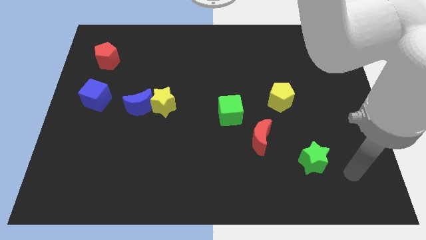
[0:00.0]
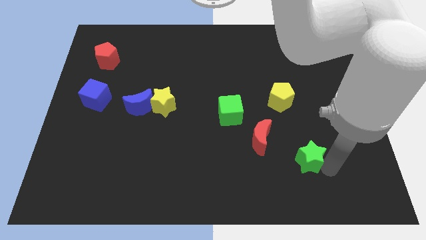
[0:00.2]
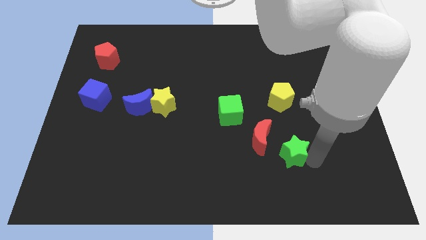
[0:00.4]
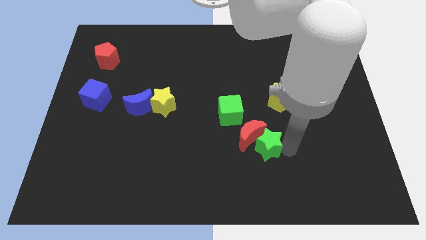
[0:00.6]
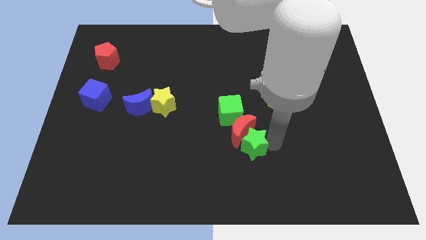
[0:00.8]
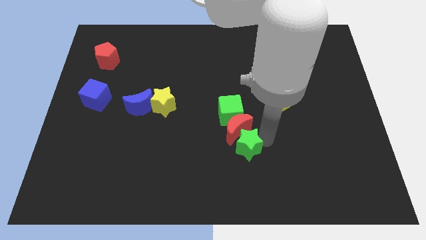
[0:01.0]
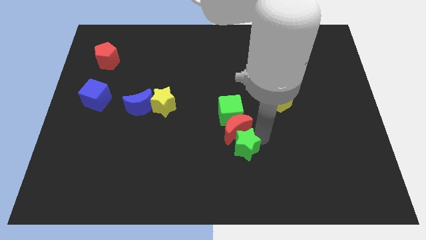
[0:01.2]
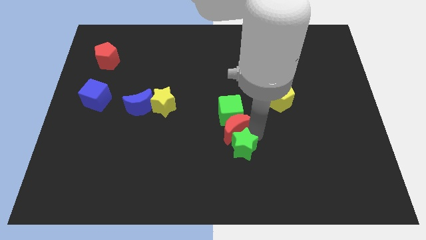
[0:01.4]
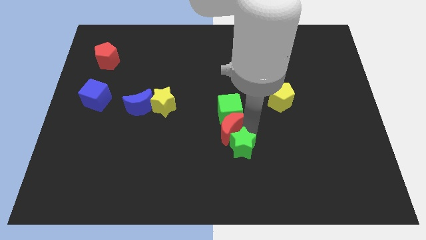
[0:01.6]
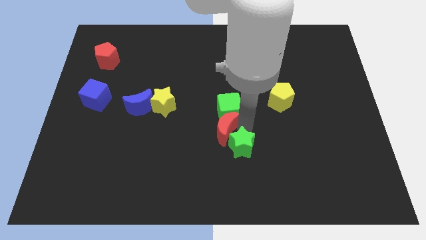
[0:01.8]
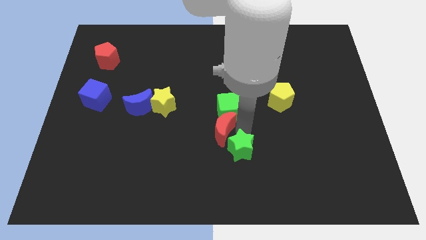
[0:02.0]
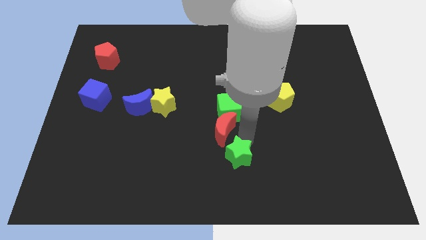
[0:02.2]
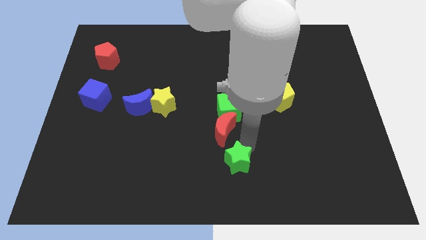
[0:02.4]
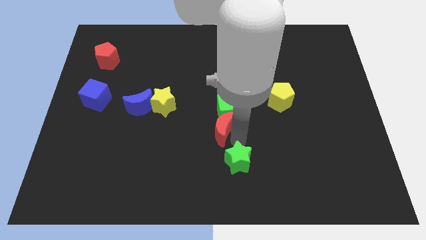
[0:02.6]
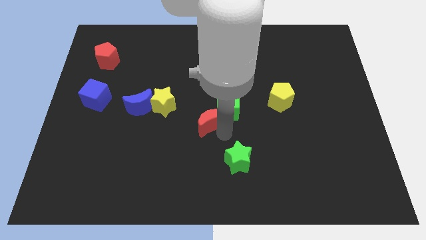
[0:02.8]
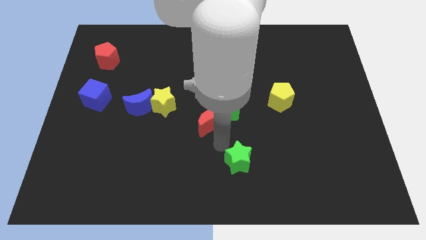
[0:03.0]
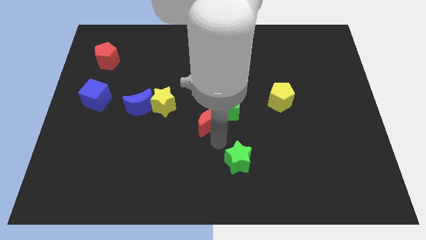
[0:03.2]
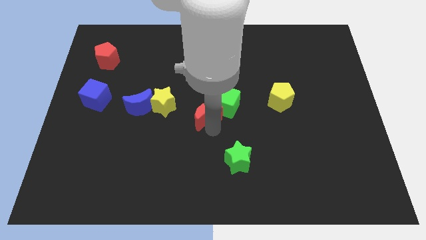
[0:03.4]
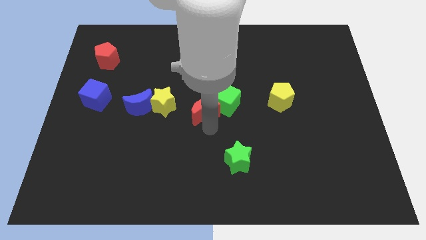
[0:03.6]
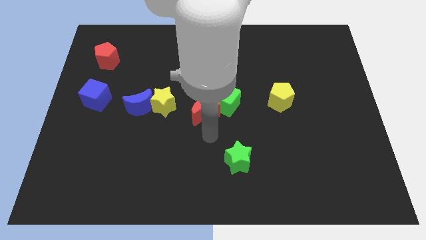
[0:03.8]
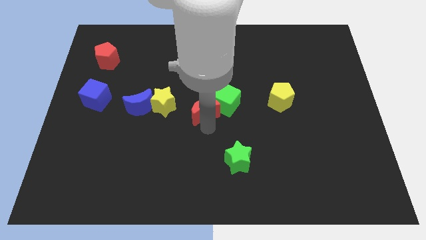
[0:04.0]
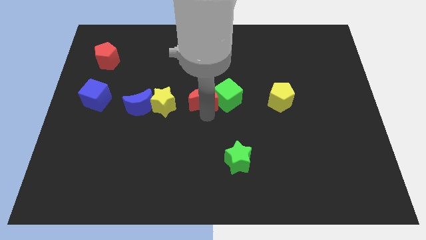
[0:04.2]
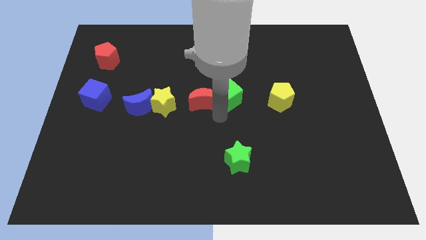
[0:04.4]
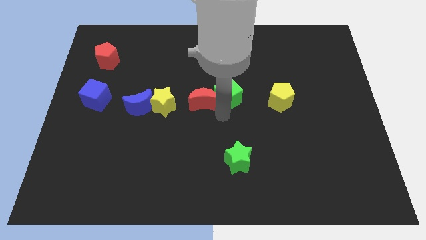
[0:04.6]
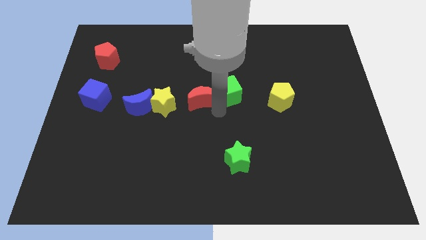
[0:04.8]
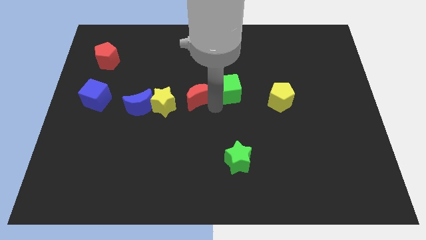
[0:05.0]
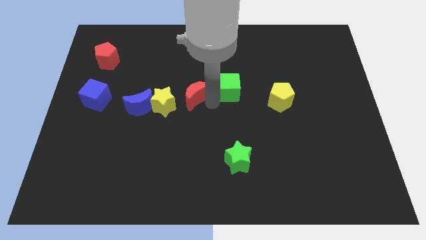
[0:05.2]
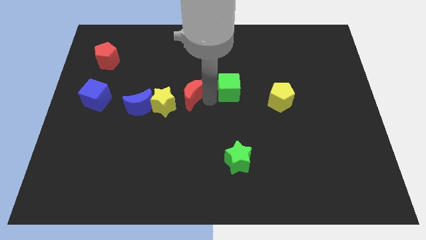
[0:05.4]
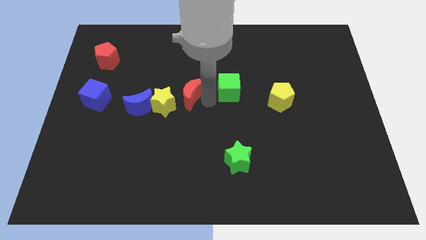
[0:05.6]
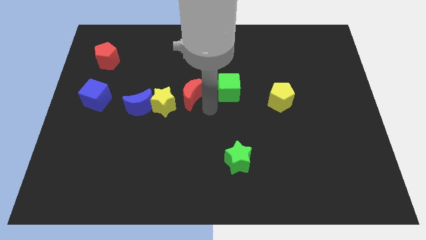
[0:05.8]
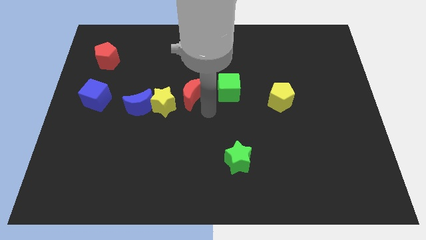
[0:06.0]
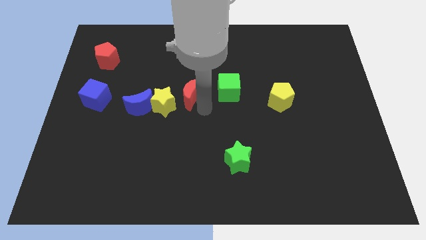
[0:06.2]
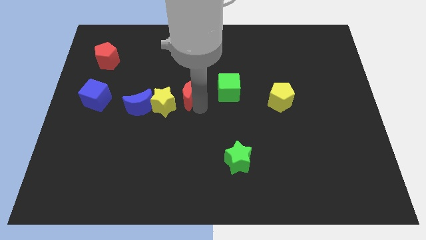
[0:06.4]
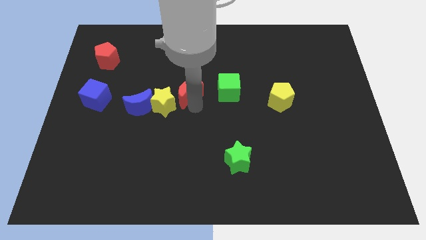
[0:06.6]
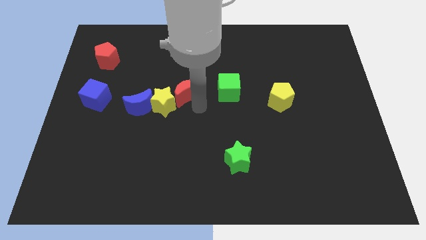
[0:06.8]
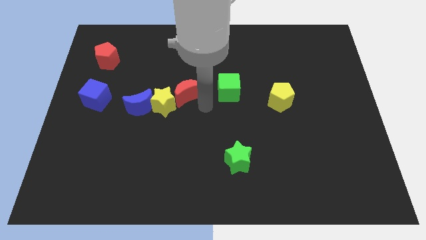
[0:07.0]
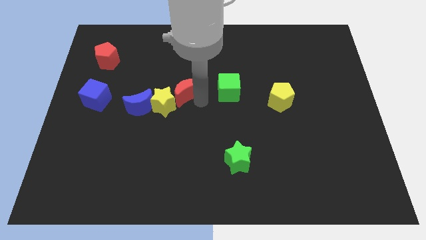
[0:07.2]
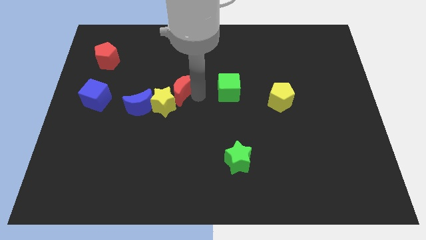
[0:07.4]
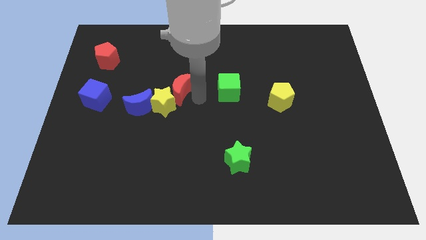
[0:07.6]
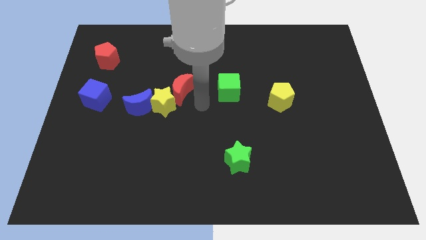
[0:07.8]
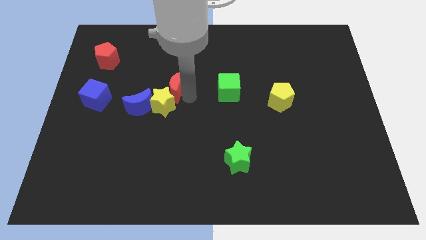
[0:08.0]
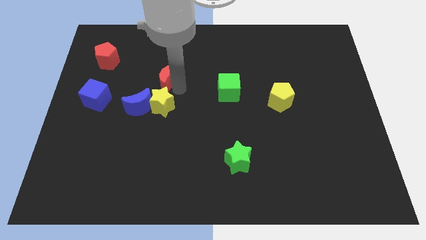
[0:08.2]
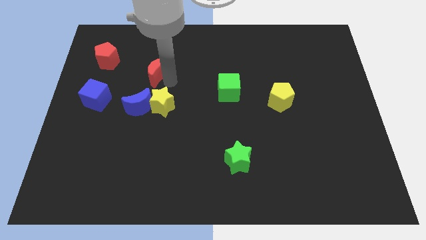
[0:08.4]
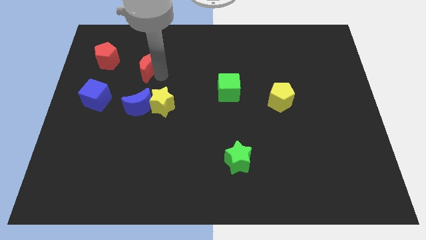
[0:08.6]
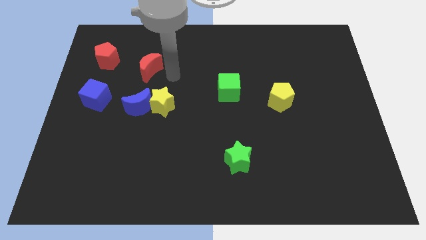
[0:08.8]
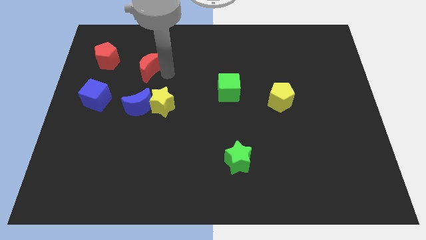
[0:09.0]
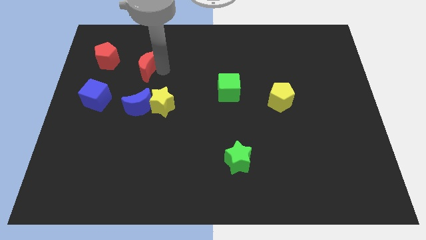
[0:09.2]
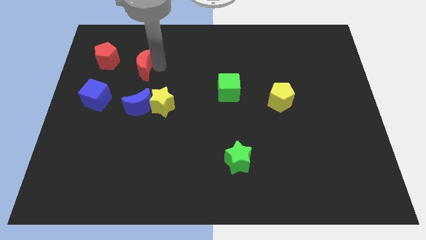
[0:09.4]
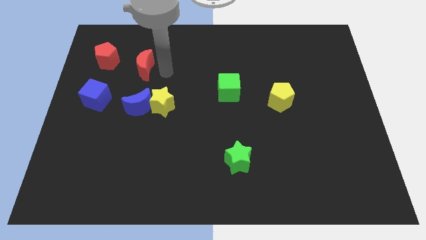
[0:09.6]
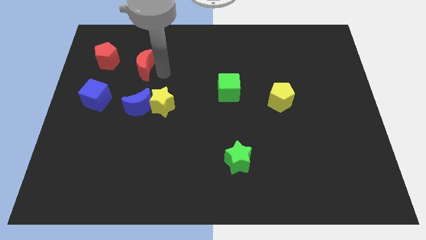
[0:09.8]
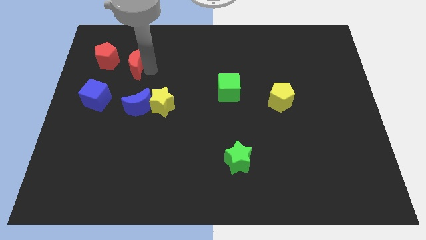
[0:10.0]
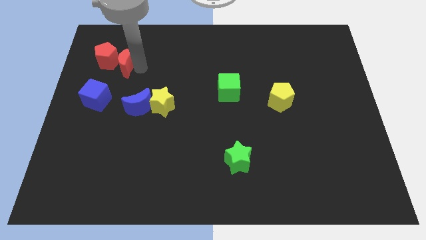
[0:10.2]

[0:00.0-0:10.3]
move the red moon next to the red pentagon

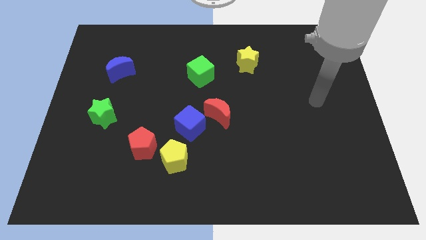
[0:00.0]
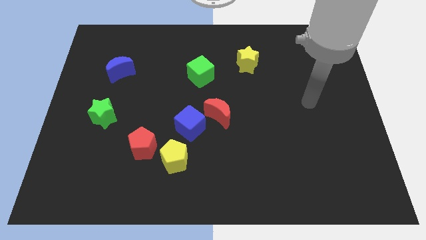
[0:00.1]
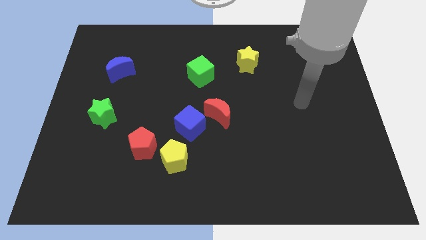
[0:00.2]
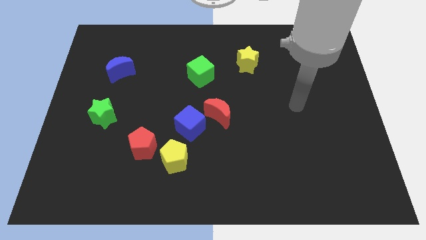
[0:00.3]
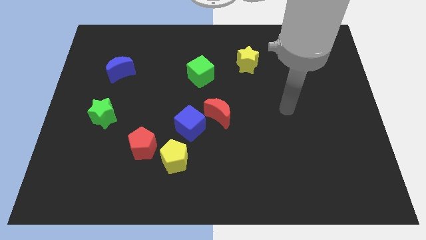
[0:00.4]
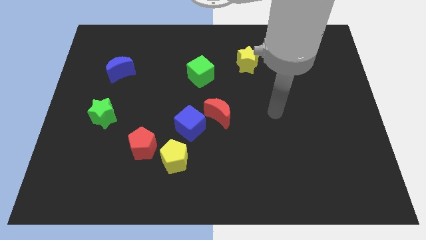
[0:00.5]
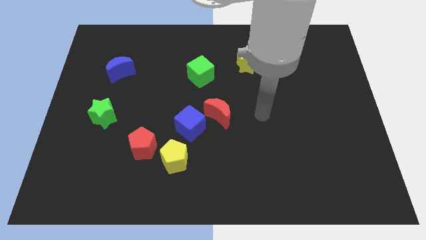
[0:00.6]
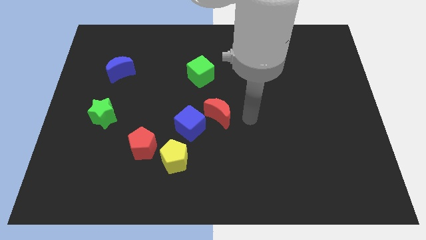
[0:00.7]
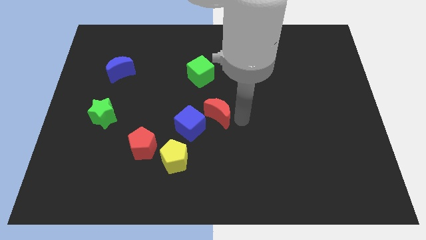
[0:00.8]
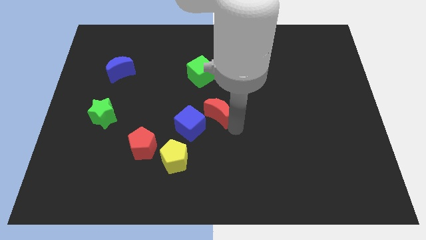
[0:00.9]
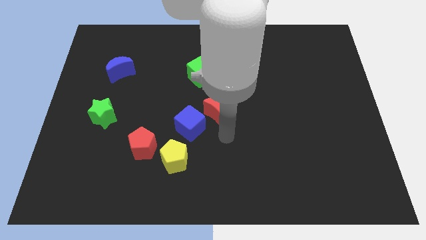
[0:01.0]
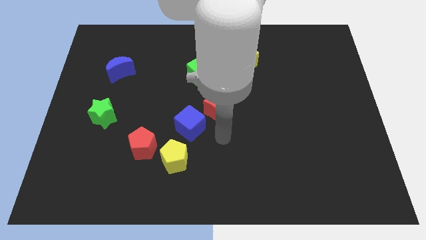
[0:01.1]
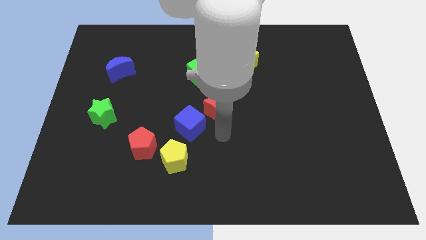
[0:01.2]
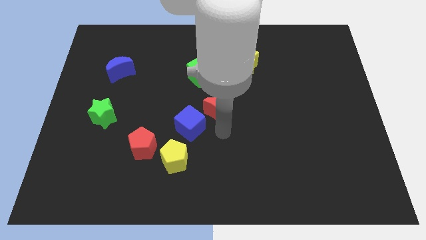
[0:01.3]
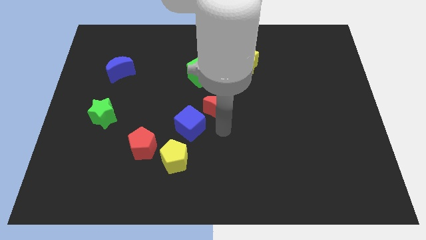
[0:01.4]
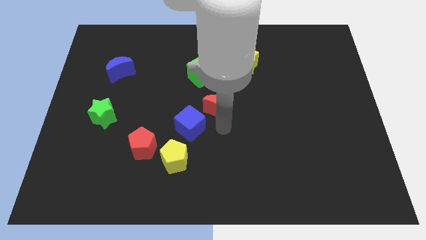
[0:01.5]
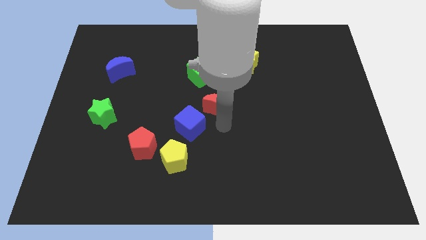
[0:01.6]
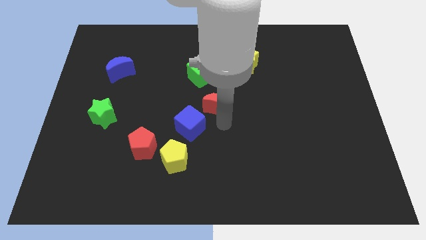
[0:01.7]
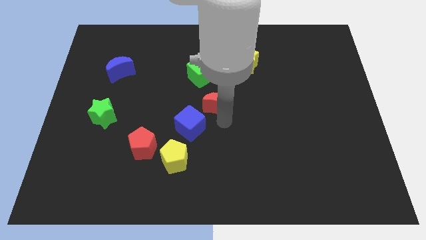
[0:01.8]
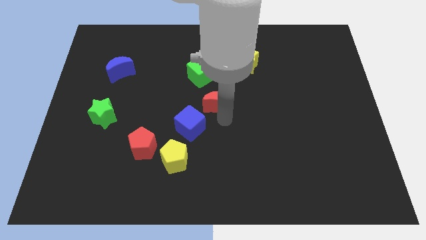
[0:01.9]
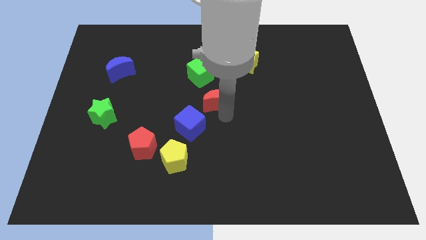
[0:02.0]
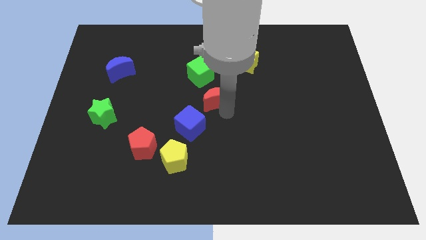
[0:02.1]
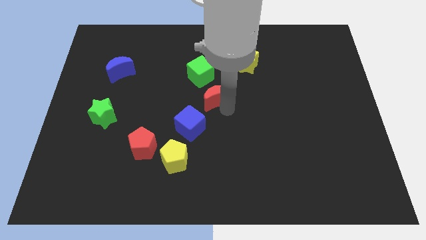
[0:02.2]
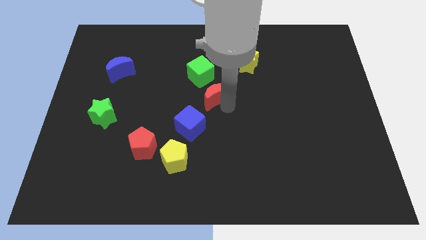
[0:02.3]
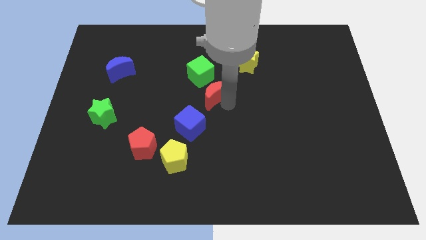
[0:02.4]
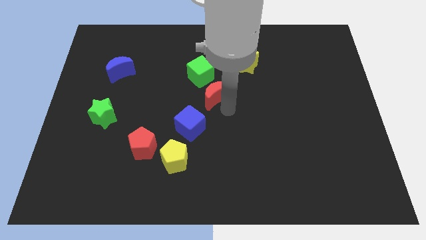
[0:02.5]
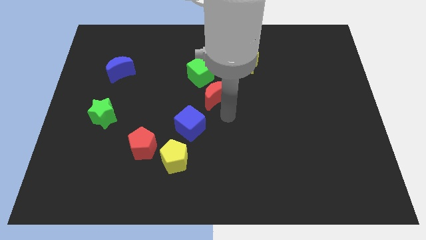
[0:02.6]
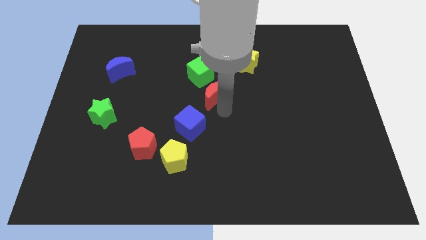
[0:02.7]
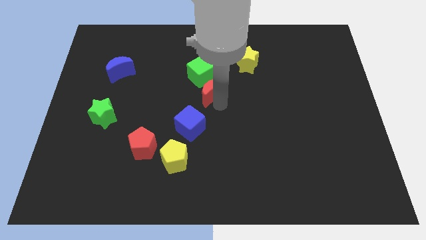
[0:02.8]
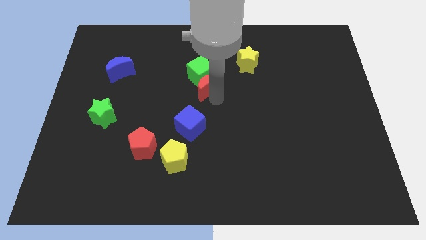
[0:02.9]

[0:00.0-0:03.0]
slide the red moon towards the green cube
